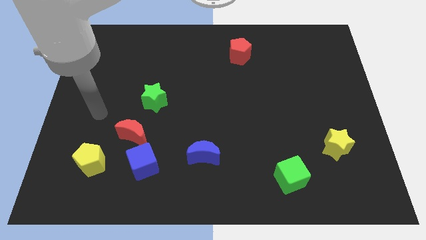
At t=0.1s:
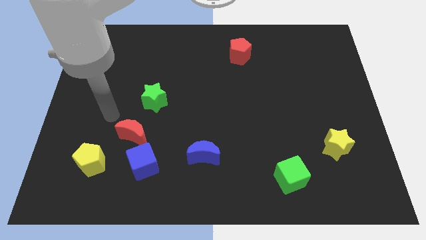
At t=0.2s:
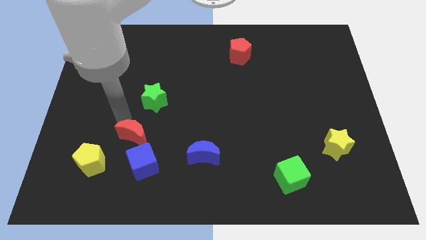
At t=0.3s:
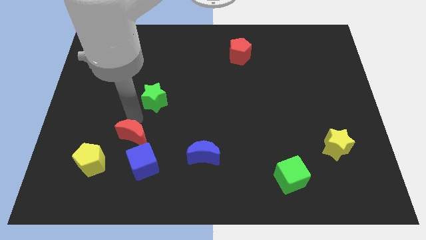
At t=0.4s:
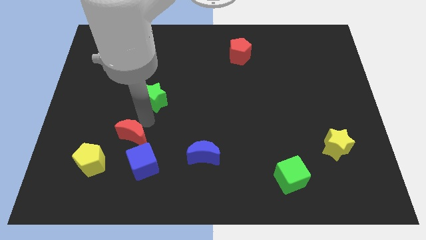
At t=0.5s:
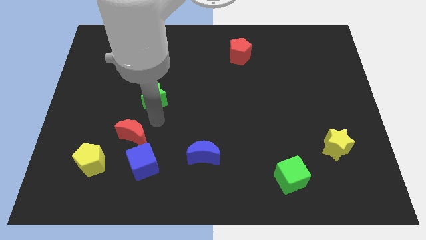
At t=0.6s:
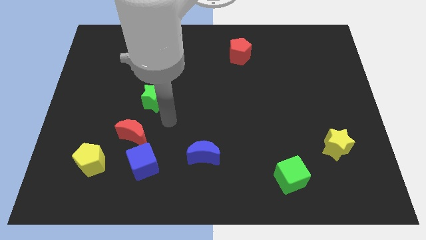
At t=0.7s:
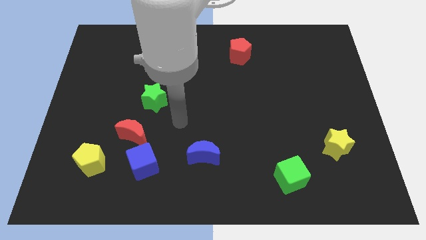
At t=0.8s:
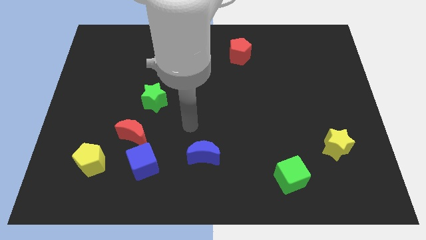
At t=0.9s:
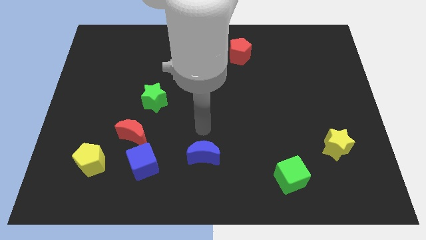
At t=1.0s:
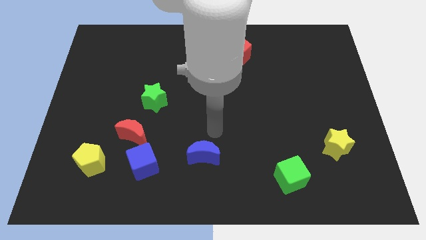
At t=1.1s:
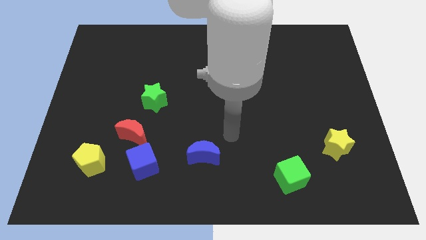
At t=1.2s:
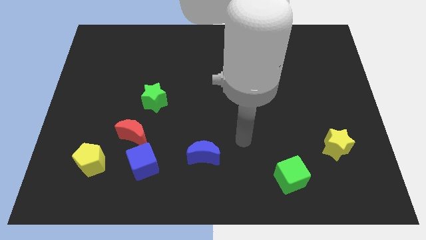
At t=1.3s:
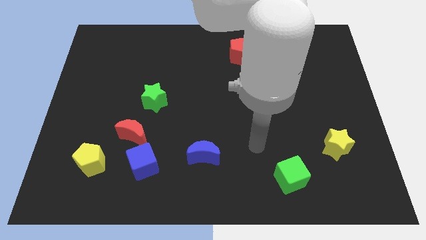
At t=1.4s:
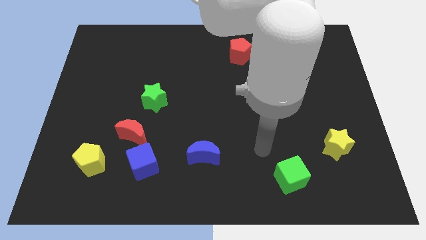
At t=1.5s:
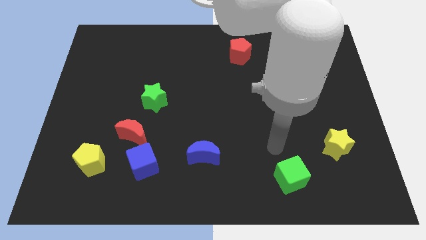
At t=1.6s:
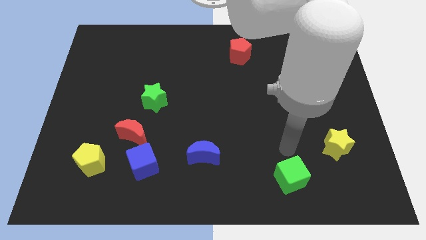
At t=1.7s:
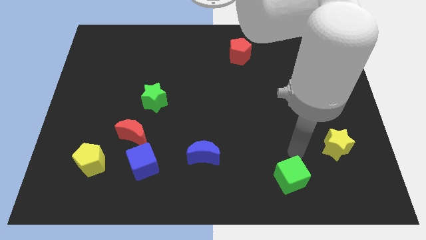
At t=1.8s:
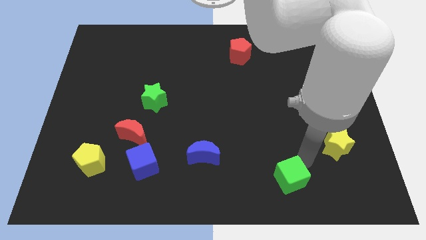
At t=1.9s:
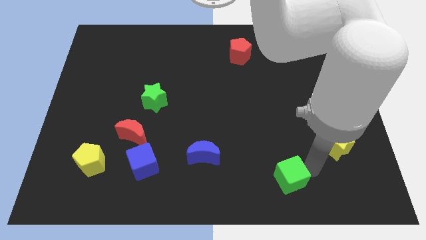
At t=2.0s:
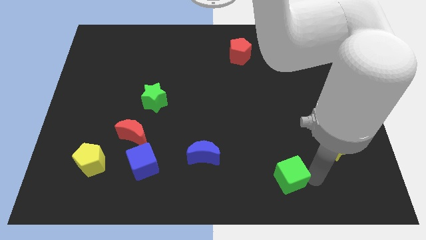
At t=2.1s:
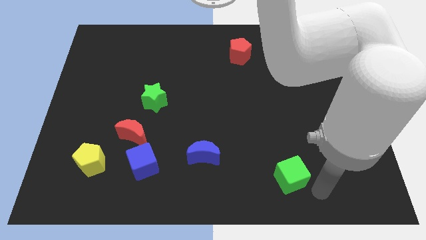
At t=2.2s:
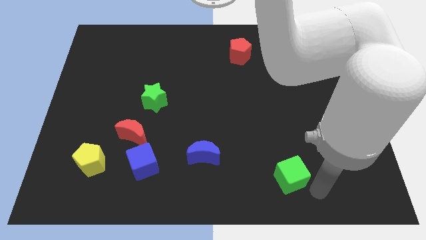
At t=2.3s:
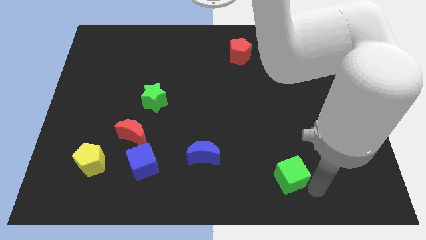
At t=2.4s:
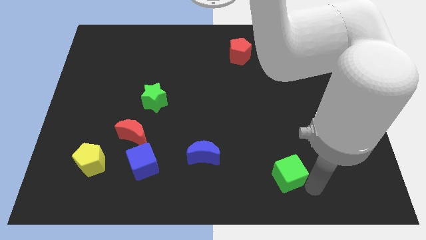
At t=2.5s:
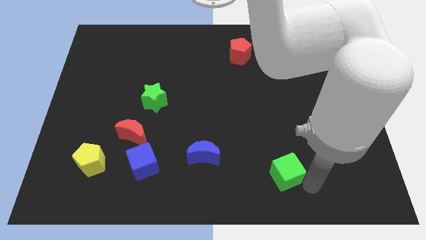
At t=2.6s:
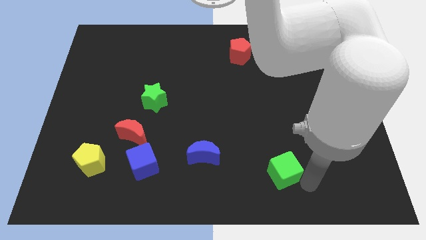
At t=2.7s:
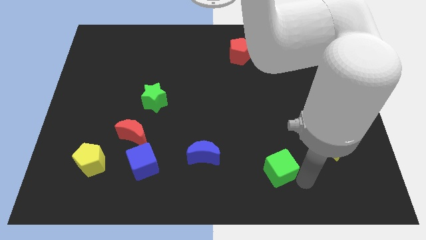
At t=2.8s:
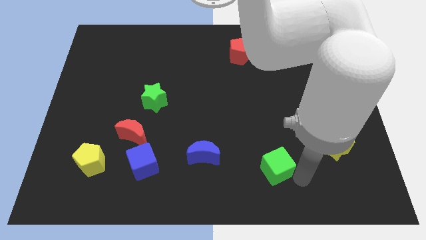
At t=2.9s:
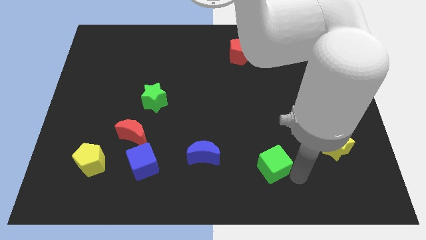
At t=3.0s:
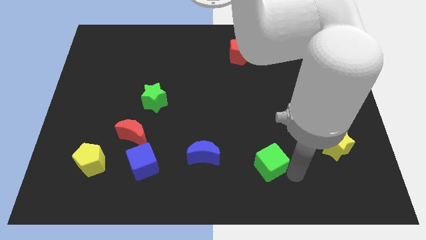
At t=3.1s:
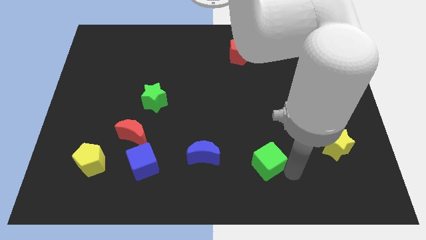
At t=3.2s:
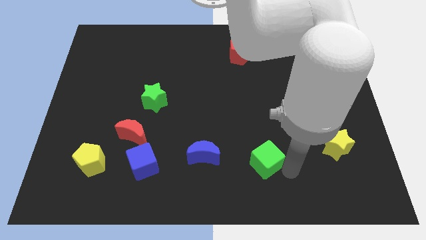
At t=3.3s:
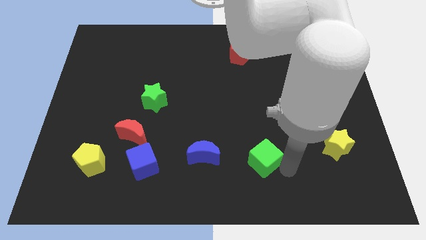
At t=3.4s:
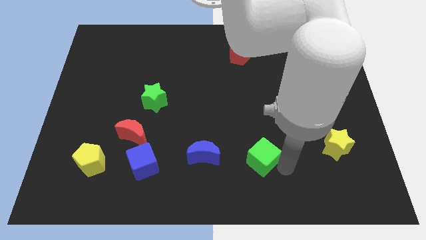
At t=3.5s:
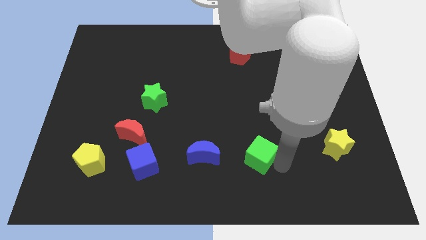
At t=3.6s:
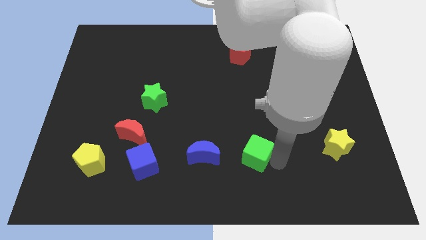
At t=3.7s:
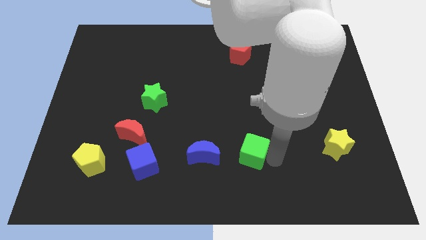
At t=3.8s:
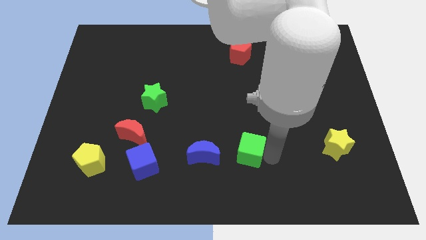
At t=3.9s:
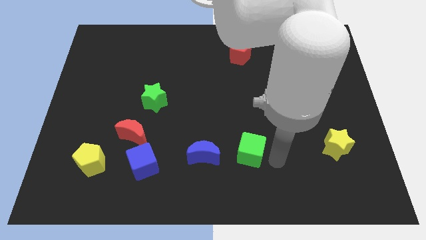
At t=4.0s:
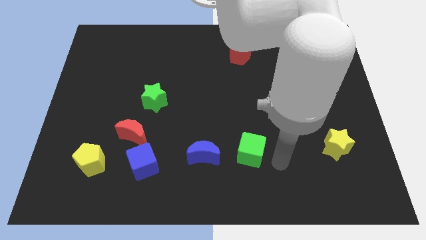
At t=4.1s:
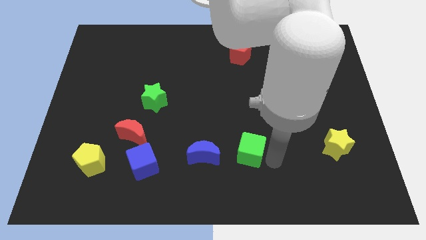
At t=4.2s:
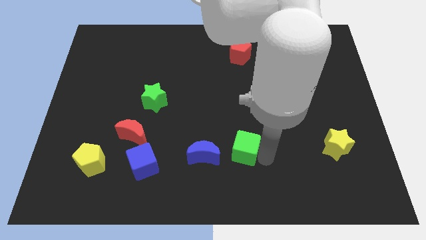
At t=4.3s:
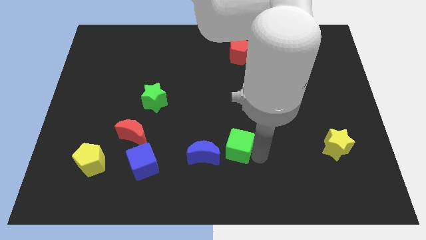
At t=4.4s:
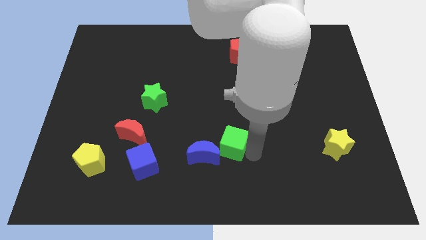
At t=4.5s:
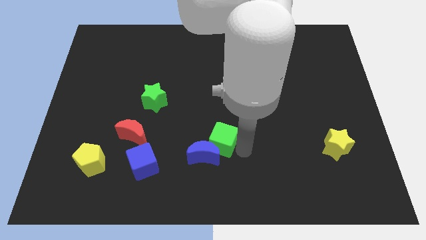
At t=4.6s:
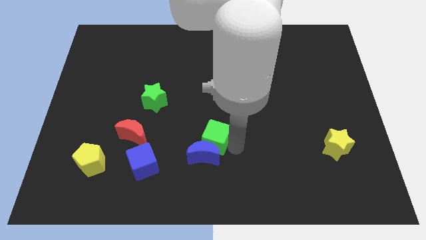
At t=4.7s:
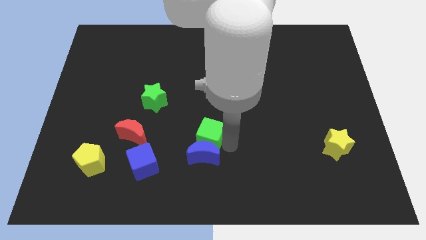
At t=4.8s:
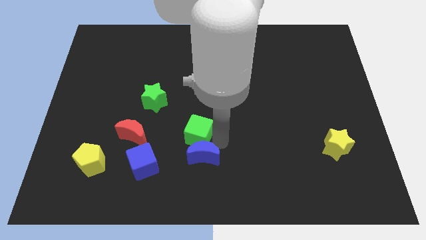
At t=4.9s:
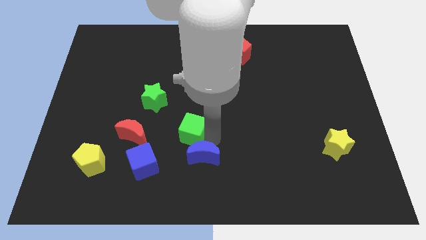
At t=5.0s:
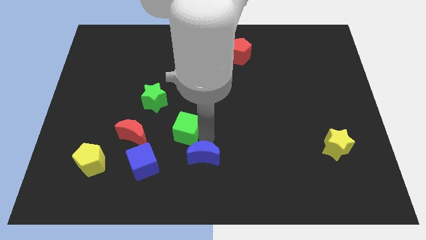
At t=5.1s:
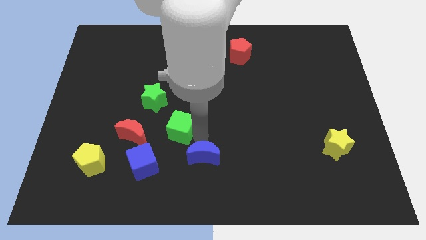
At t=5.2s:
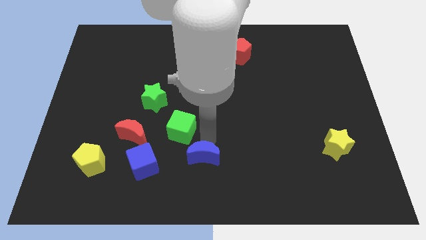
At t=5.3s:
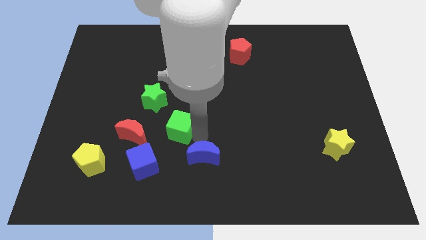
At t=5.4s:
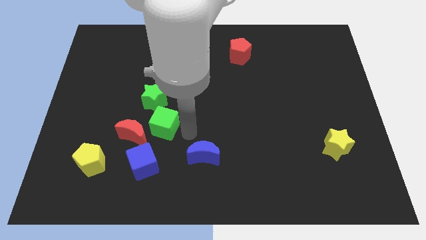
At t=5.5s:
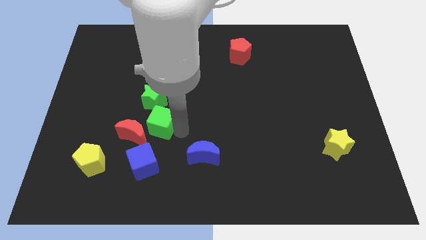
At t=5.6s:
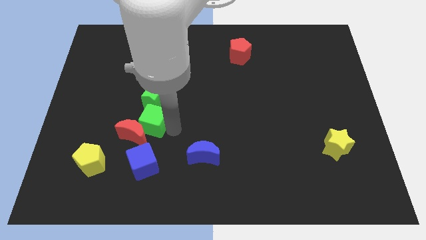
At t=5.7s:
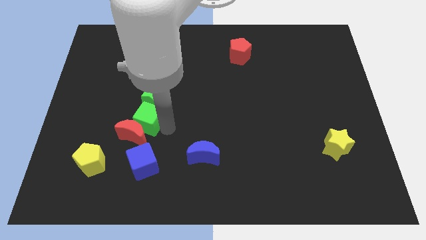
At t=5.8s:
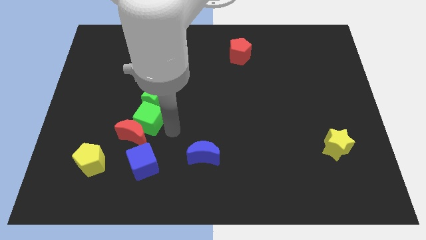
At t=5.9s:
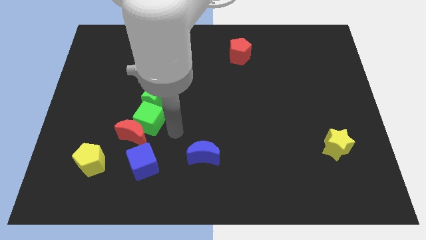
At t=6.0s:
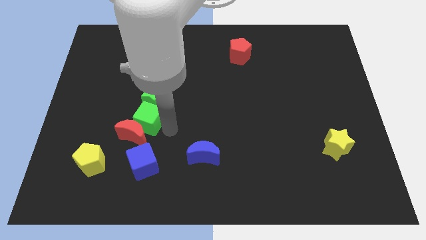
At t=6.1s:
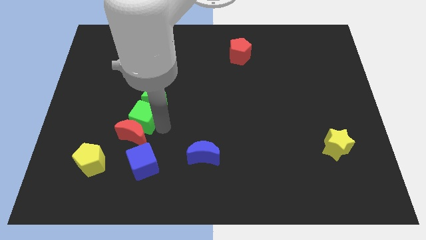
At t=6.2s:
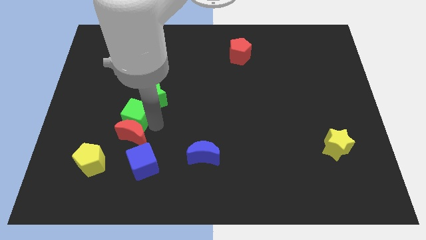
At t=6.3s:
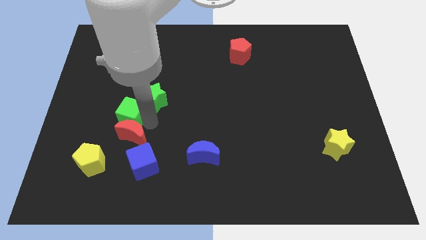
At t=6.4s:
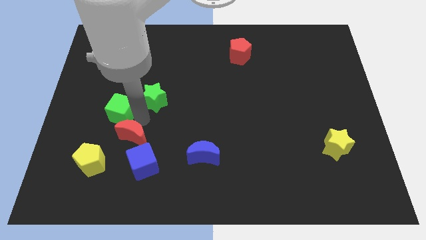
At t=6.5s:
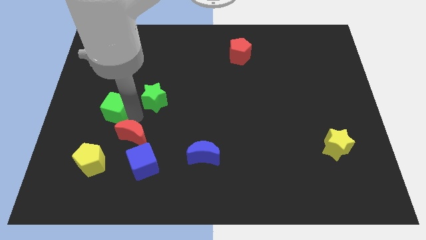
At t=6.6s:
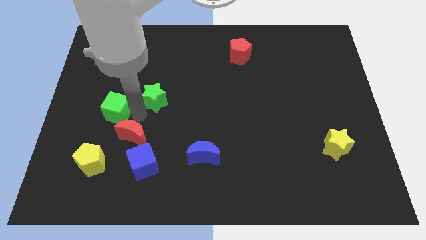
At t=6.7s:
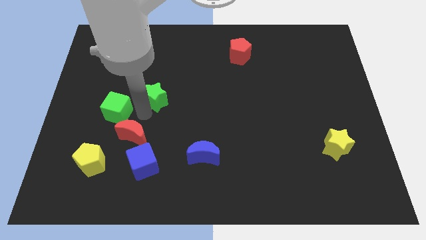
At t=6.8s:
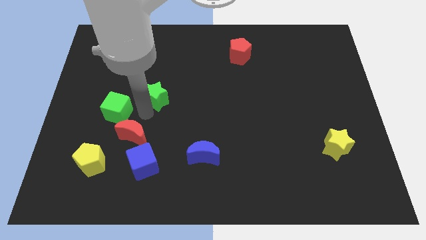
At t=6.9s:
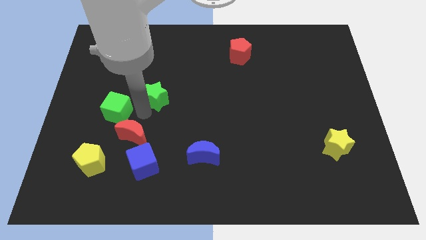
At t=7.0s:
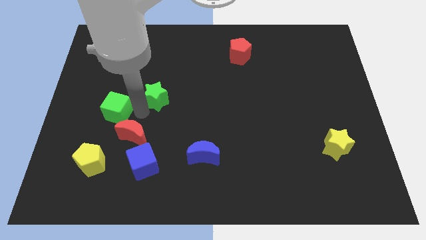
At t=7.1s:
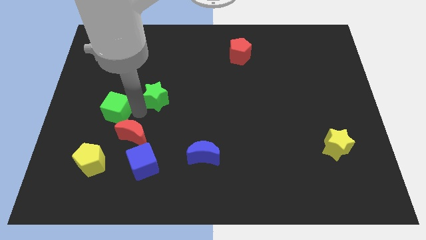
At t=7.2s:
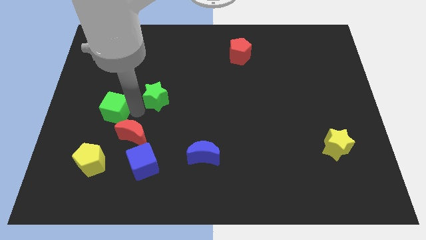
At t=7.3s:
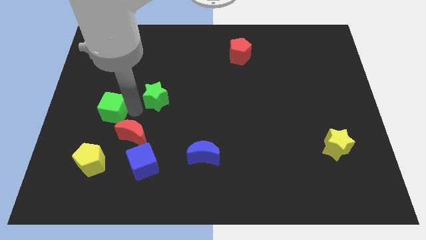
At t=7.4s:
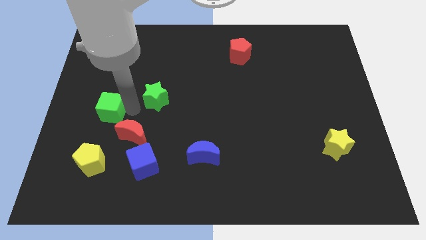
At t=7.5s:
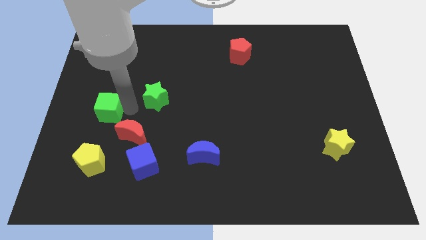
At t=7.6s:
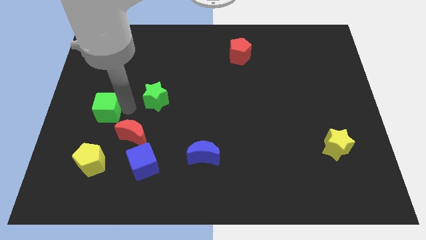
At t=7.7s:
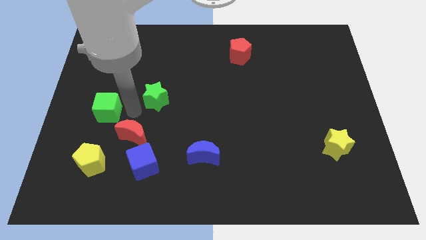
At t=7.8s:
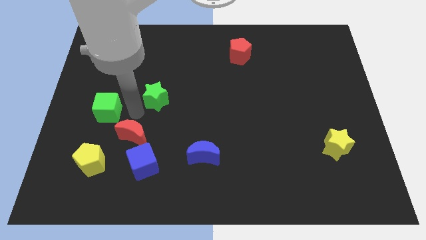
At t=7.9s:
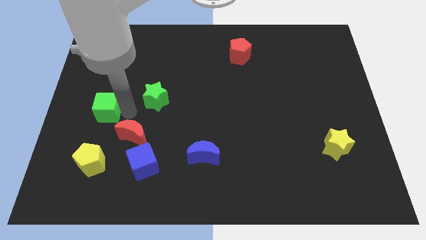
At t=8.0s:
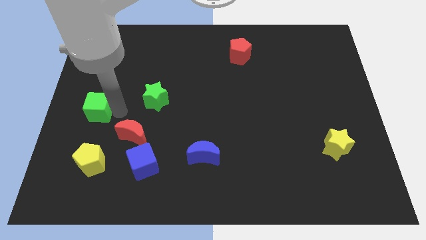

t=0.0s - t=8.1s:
slide the green cube to the center left
